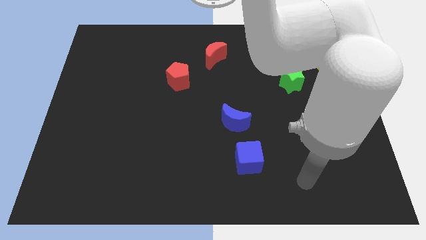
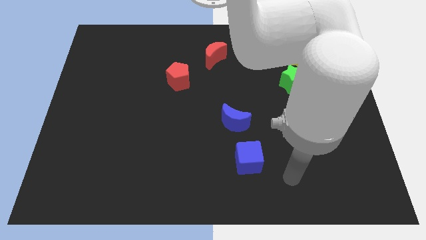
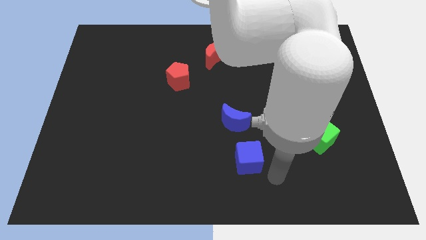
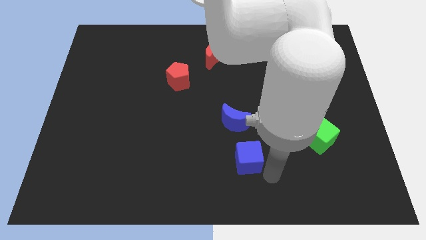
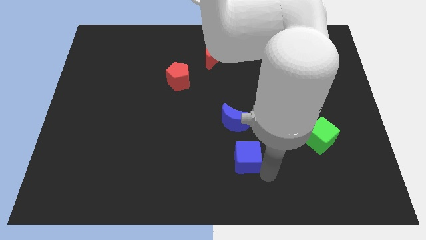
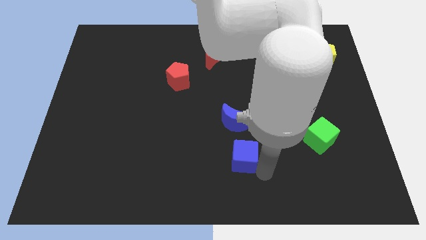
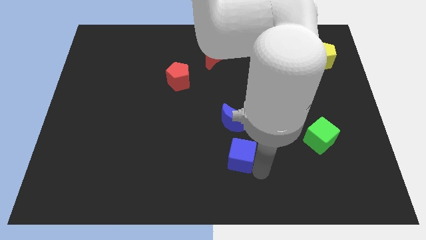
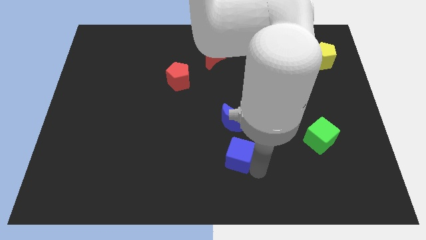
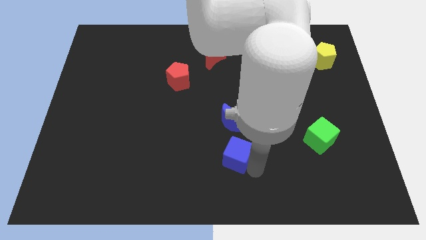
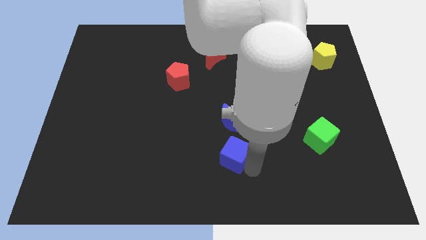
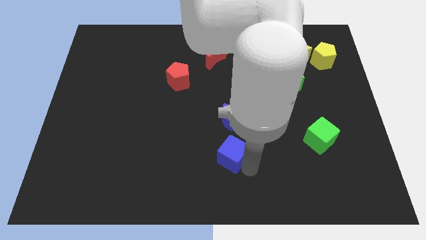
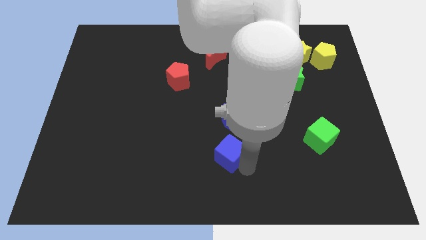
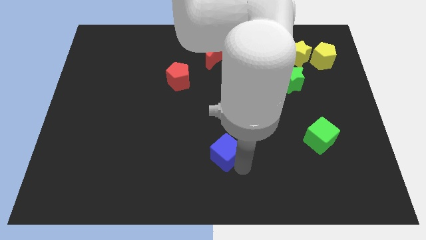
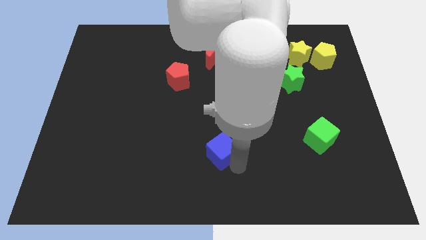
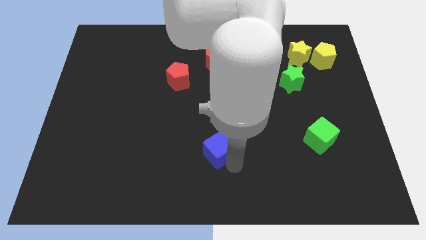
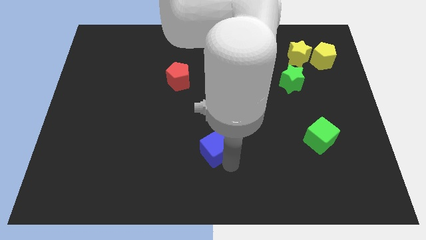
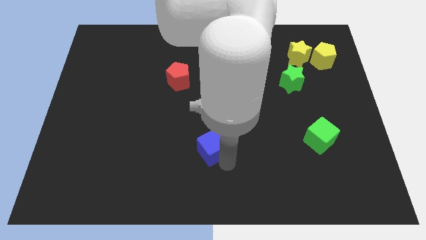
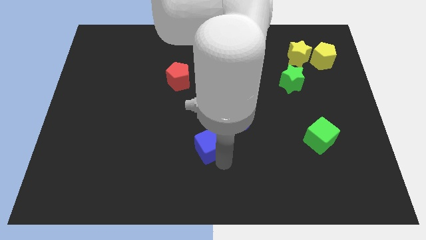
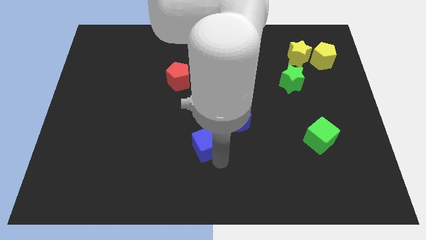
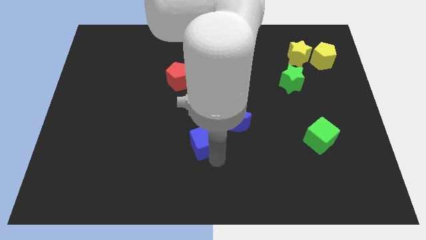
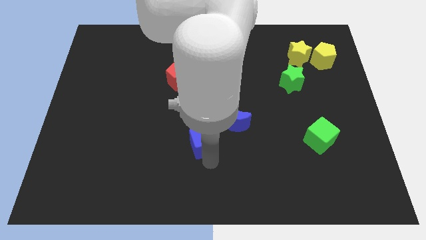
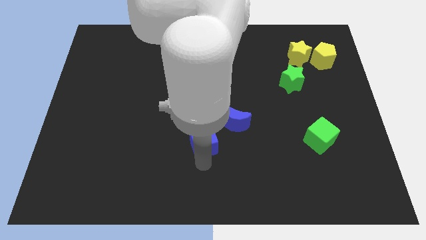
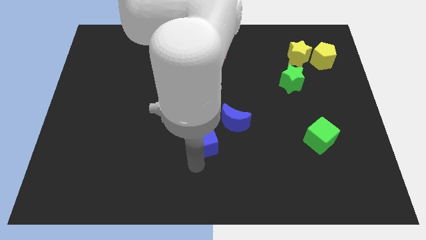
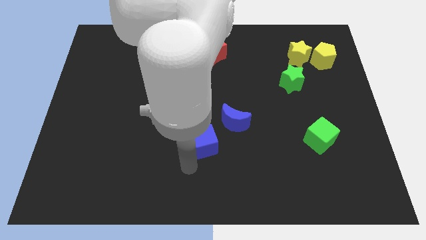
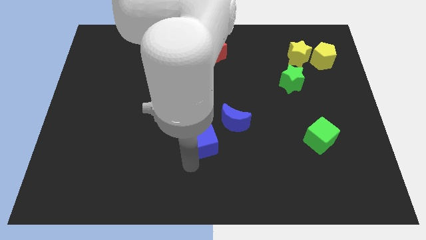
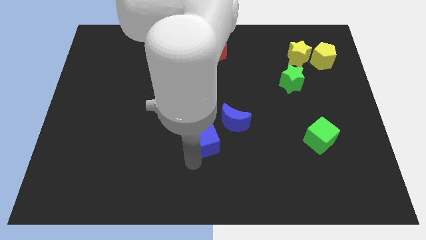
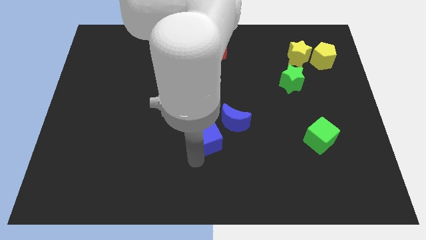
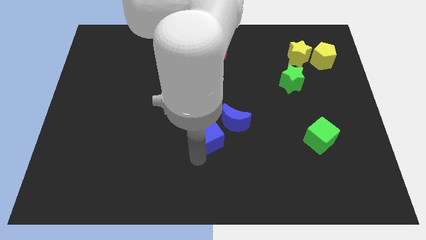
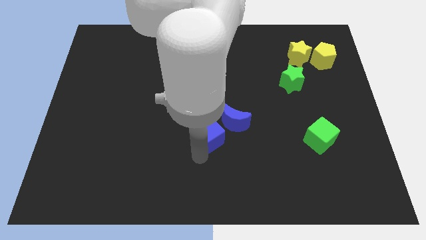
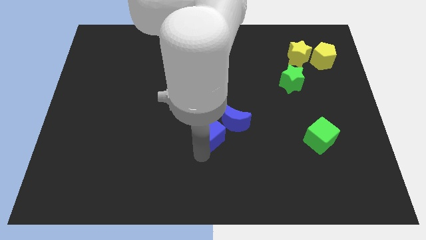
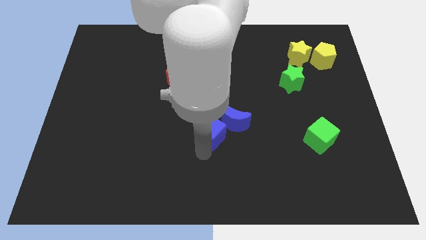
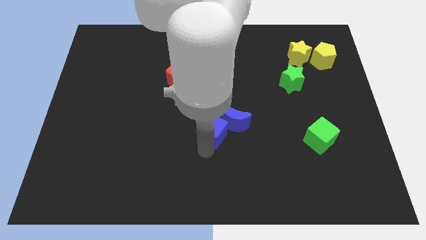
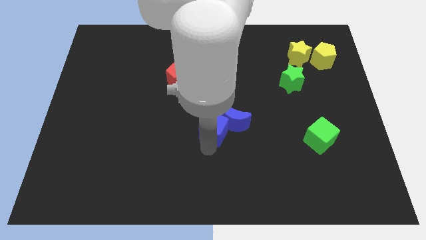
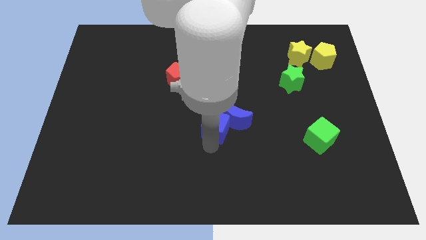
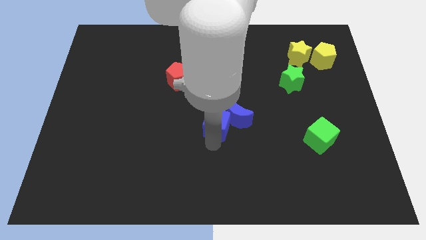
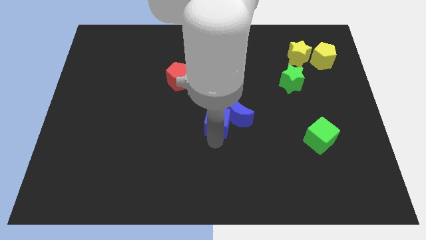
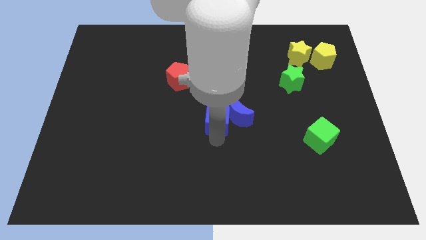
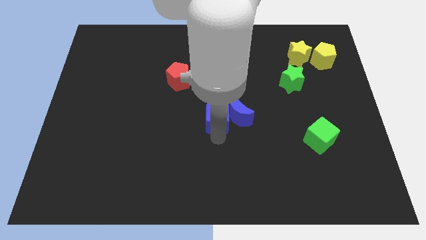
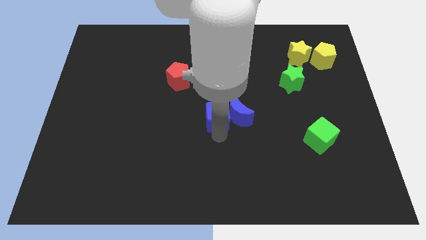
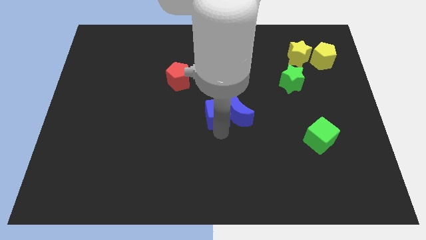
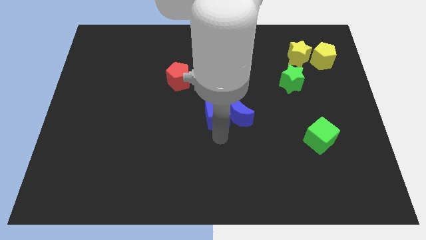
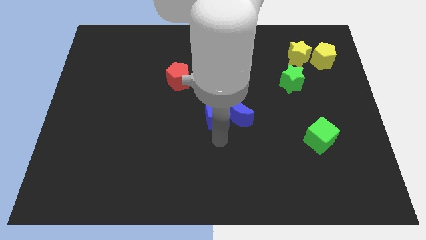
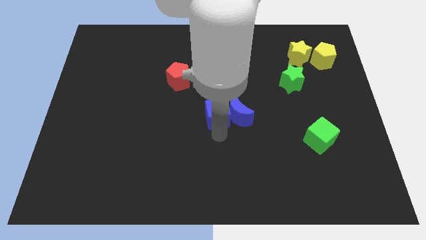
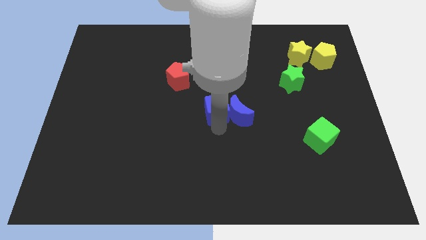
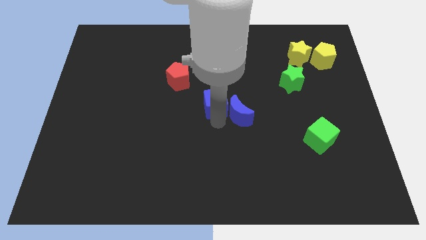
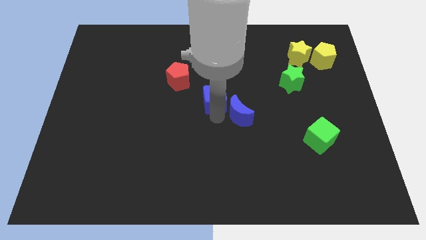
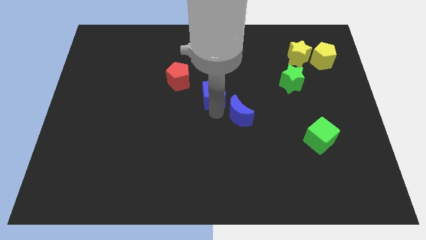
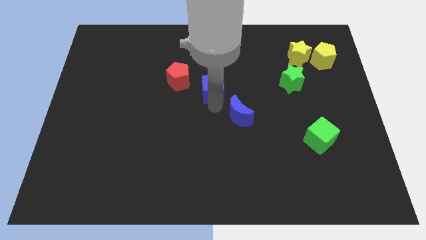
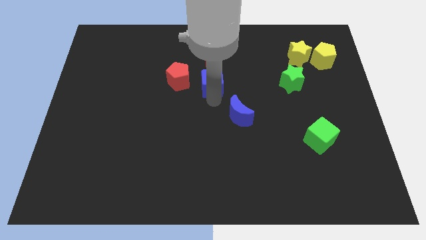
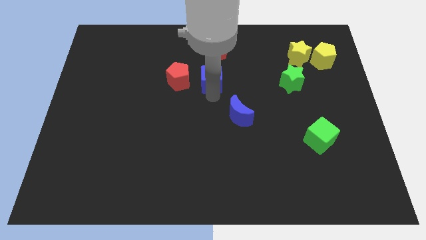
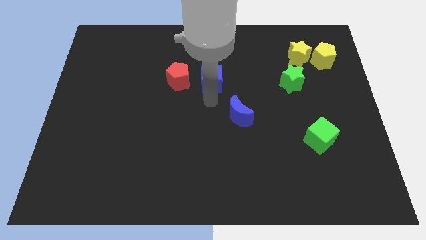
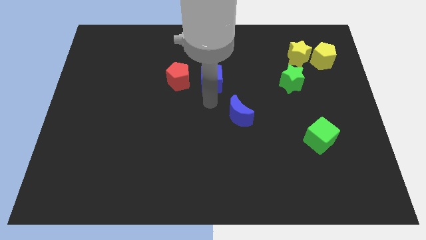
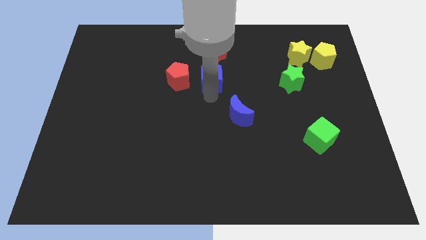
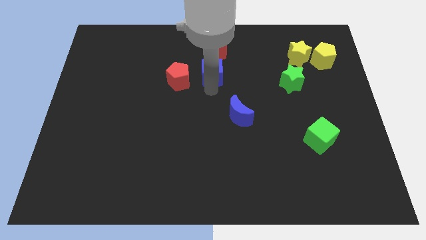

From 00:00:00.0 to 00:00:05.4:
move the blue cube next to the red moon

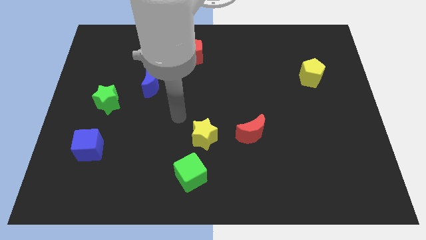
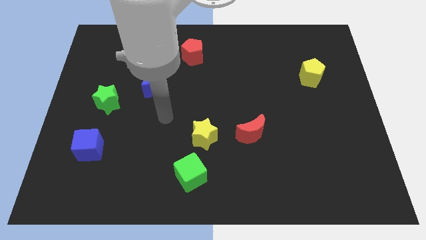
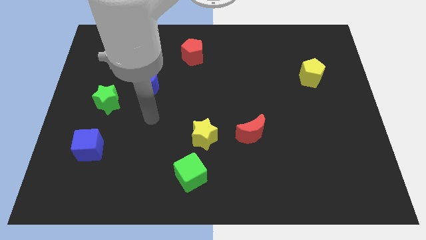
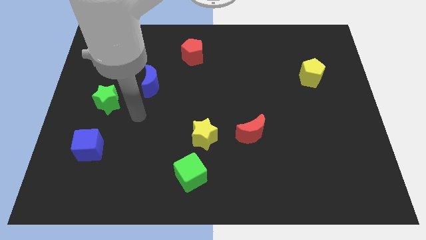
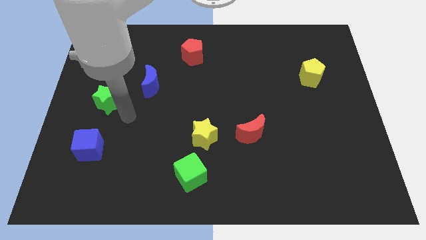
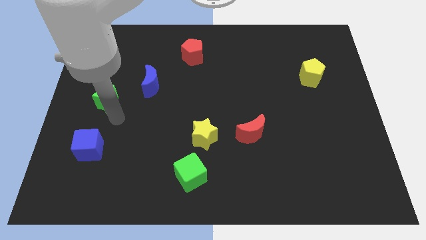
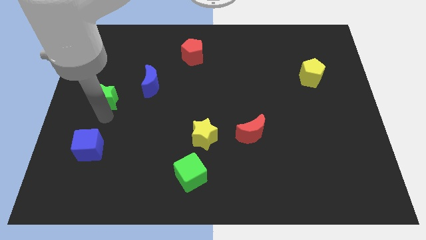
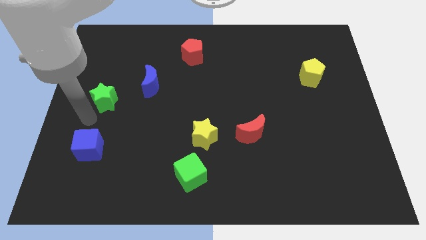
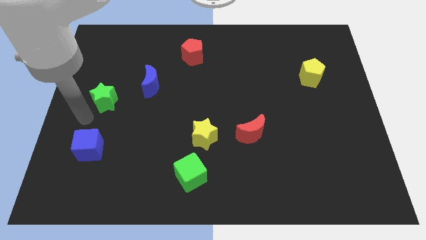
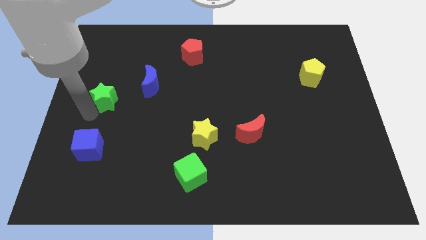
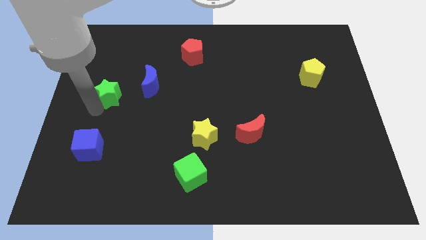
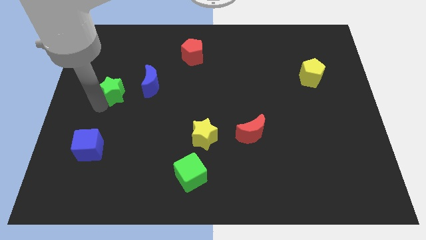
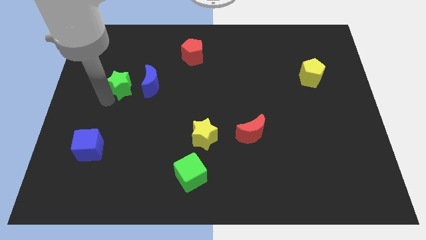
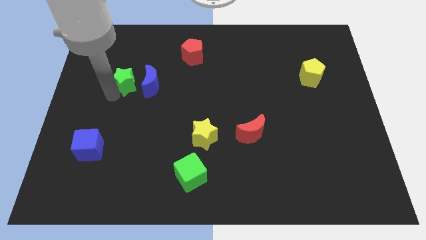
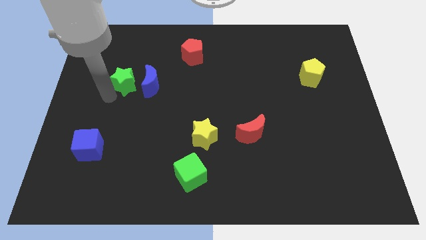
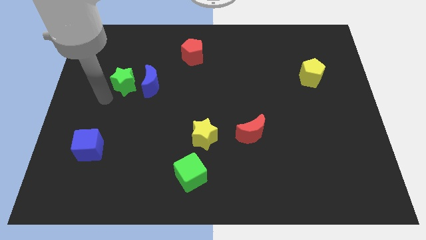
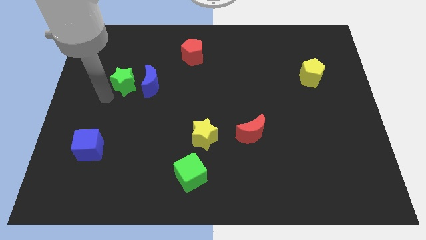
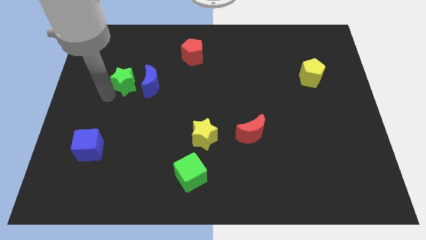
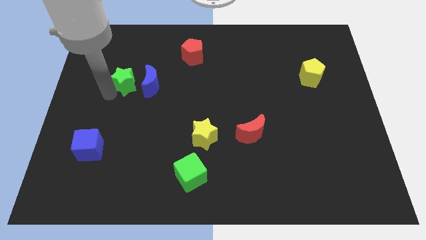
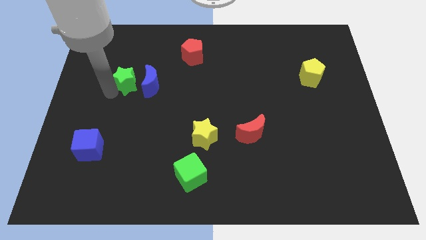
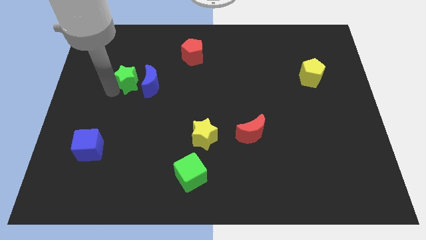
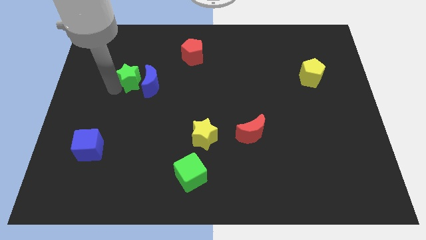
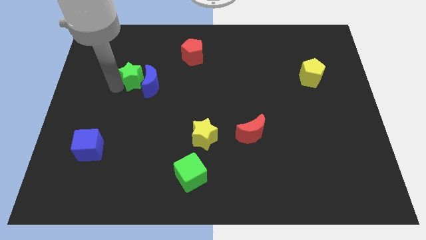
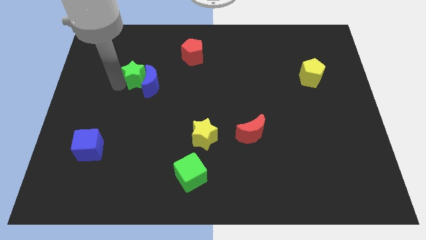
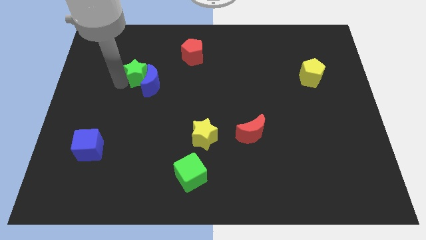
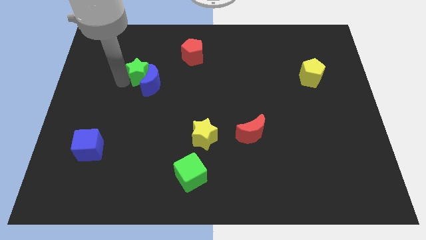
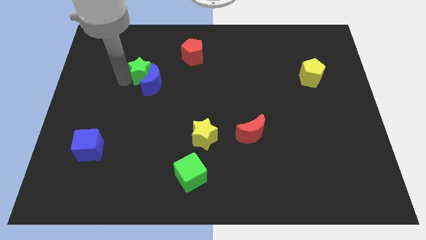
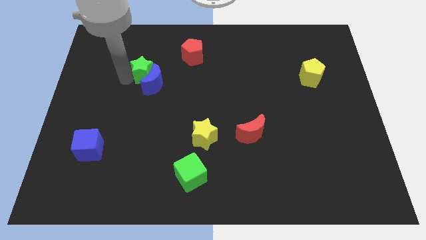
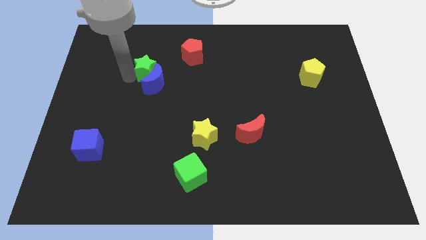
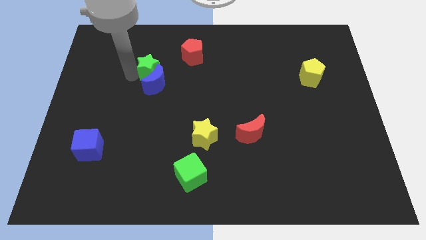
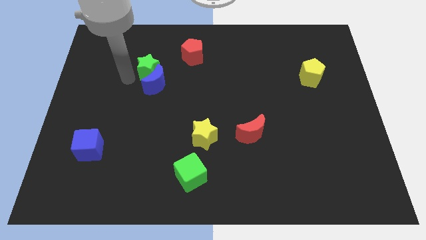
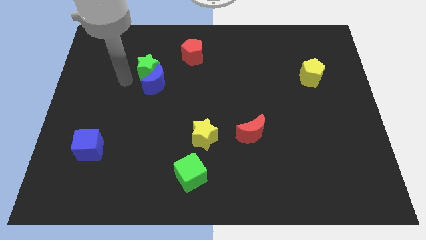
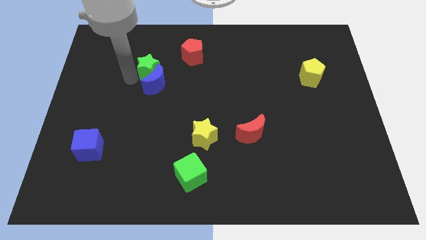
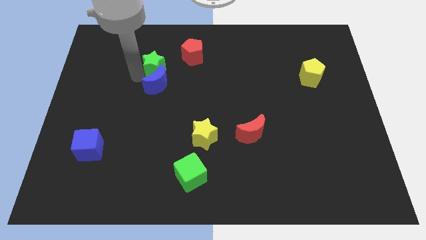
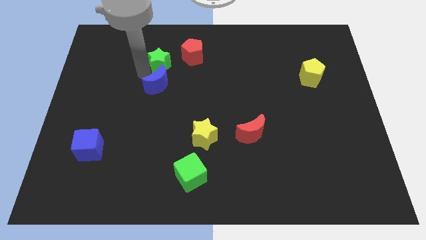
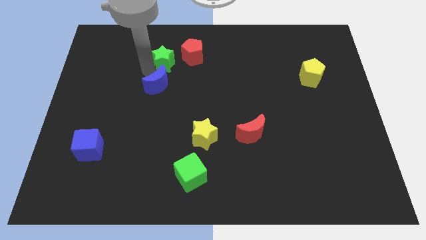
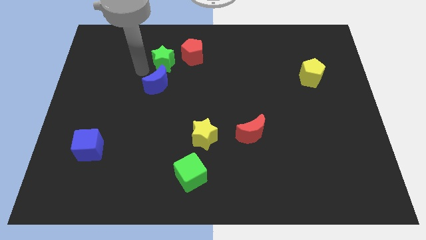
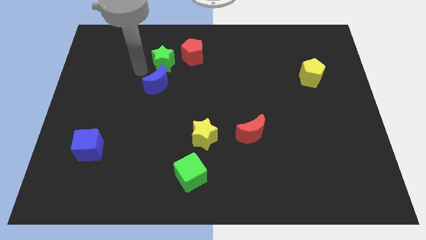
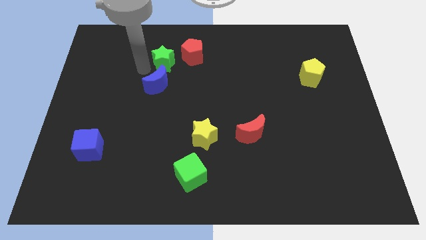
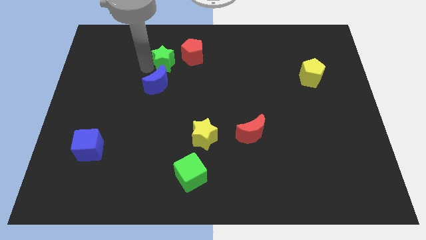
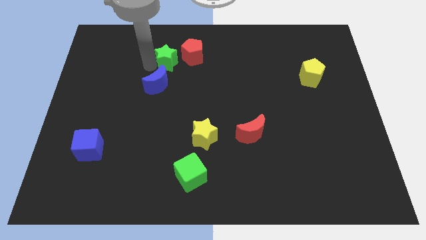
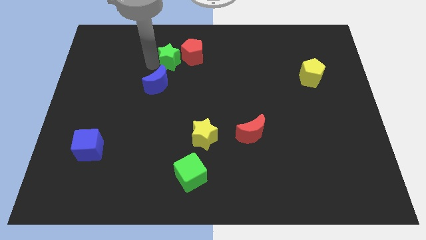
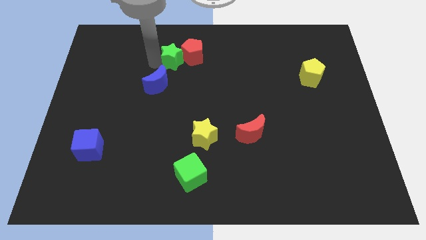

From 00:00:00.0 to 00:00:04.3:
move the green star next to the red pentagon
